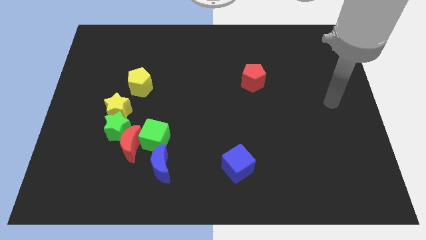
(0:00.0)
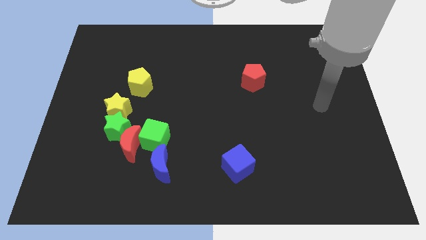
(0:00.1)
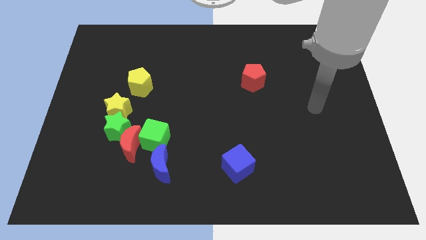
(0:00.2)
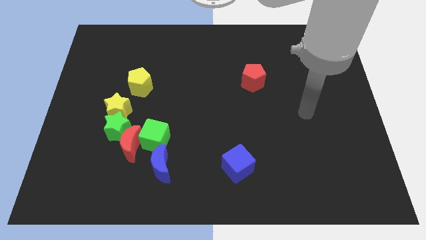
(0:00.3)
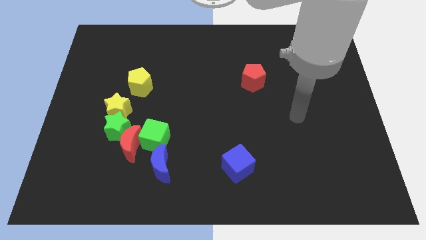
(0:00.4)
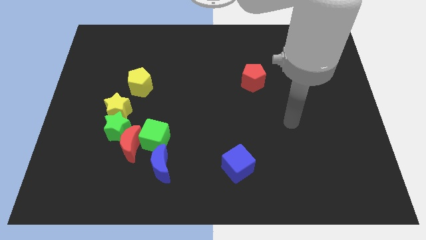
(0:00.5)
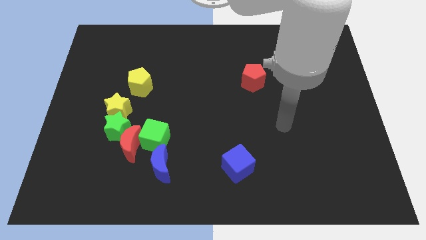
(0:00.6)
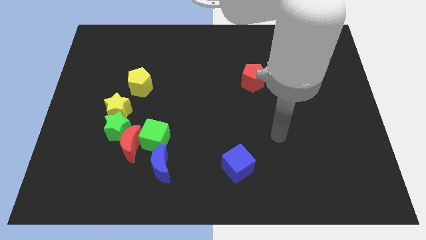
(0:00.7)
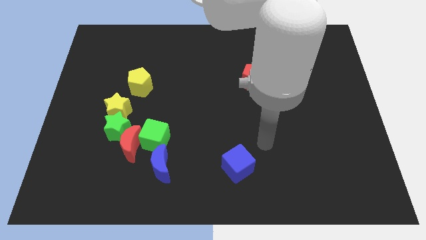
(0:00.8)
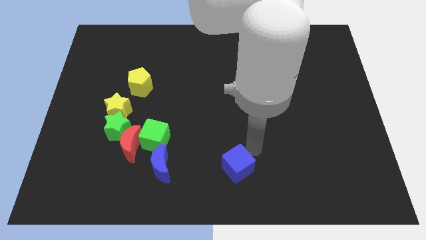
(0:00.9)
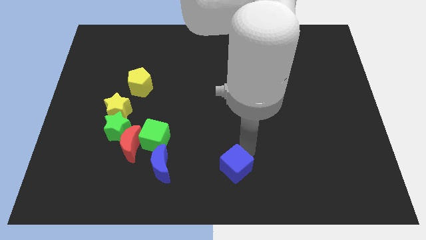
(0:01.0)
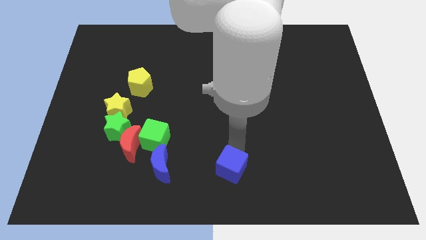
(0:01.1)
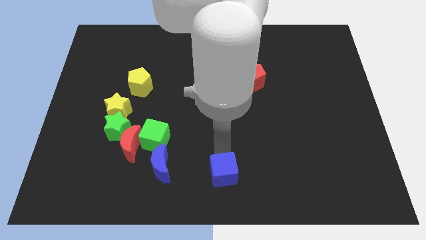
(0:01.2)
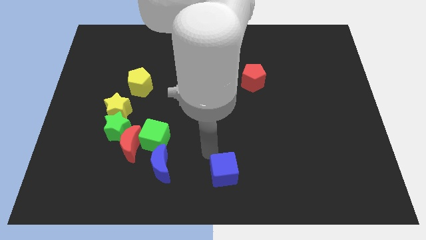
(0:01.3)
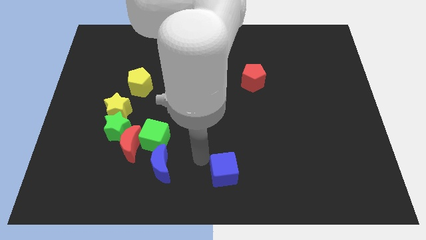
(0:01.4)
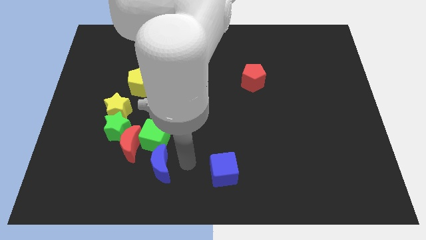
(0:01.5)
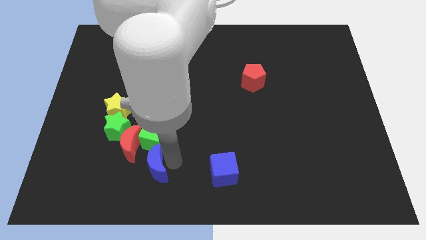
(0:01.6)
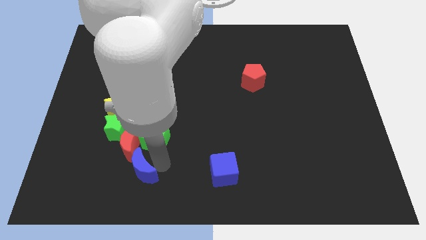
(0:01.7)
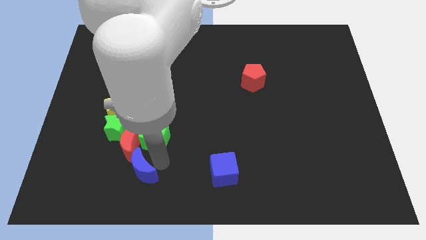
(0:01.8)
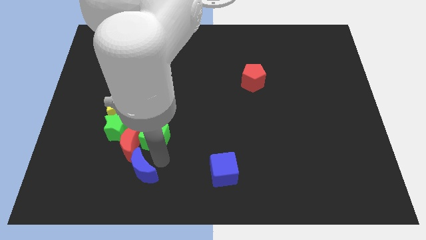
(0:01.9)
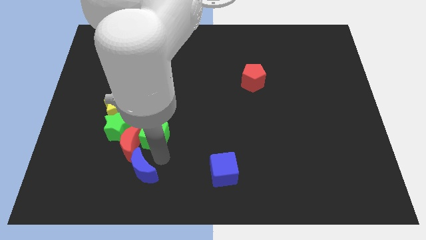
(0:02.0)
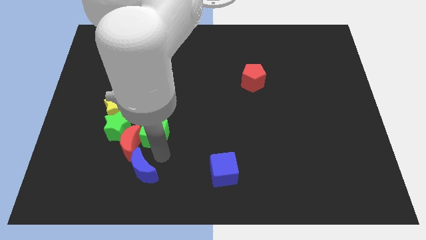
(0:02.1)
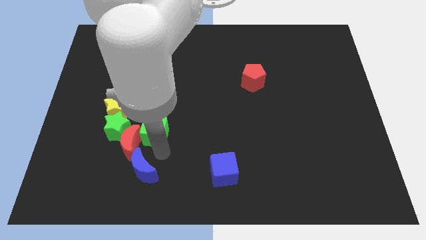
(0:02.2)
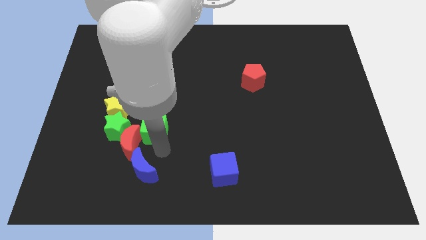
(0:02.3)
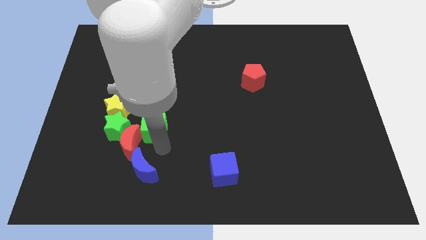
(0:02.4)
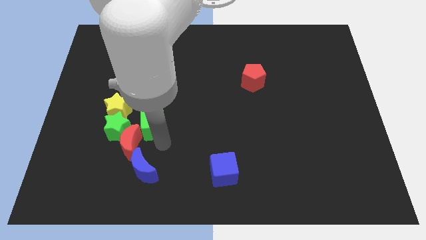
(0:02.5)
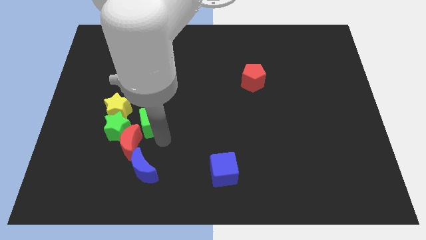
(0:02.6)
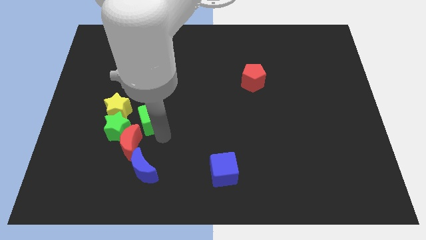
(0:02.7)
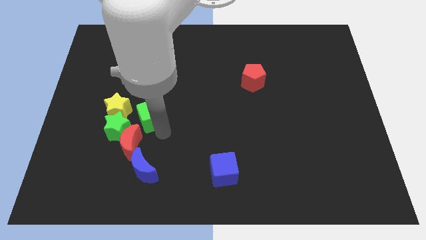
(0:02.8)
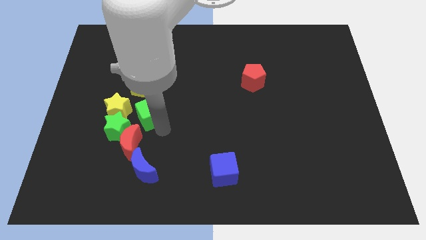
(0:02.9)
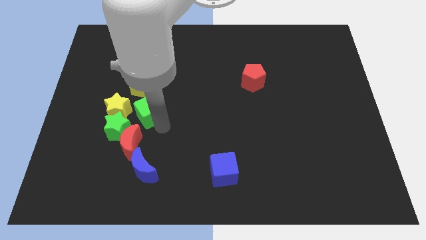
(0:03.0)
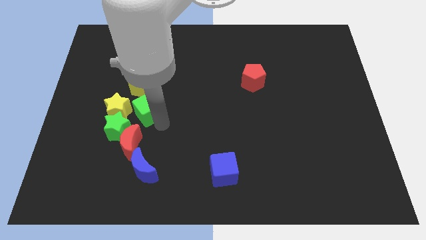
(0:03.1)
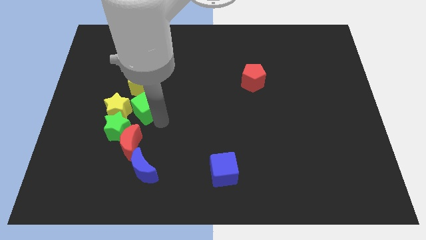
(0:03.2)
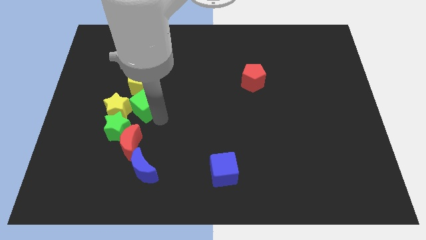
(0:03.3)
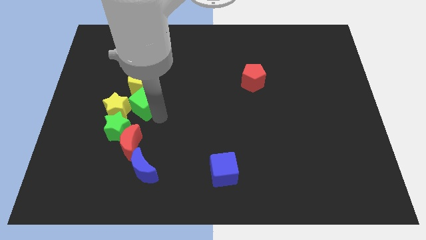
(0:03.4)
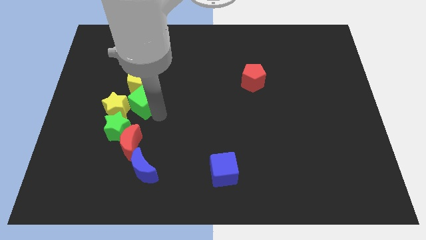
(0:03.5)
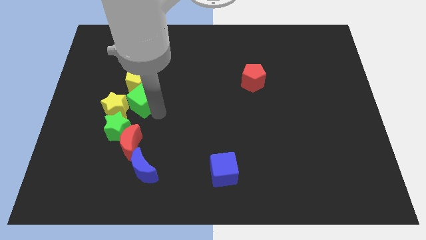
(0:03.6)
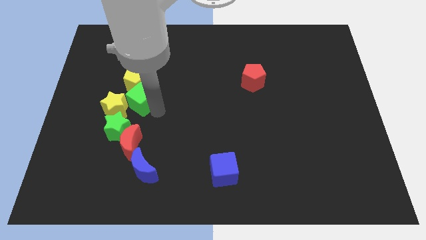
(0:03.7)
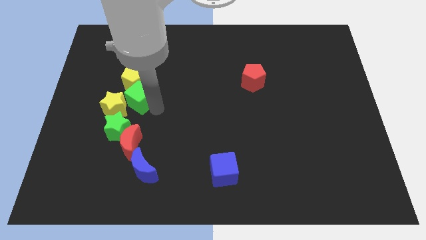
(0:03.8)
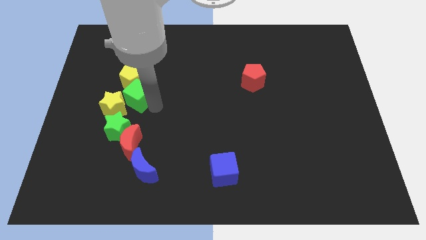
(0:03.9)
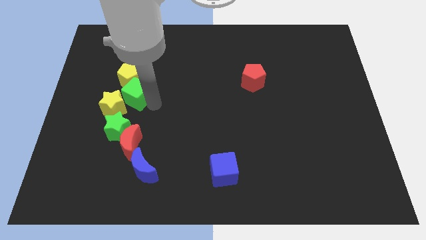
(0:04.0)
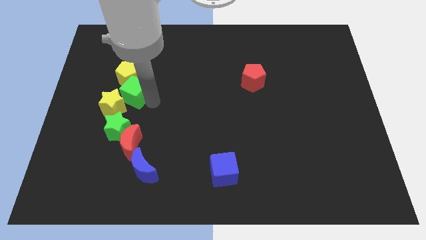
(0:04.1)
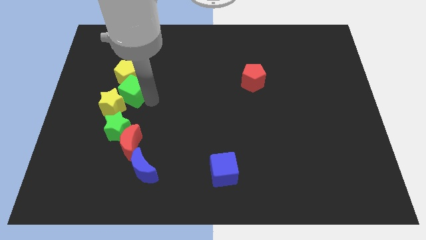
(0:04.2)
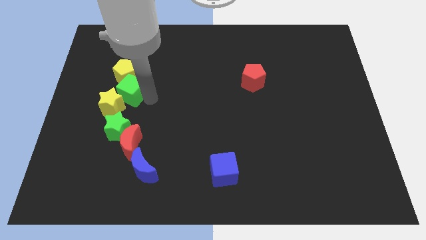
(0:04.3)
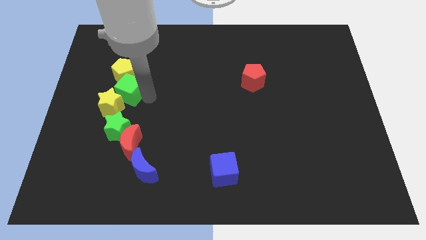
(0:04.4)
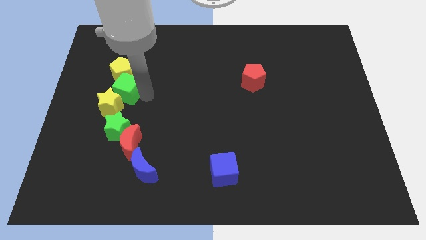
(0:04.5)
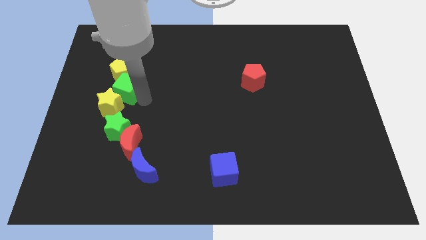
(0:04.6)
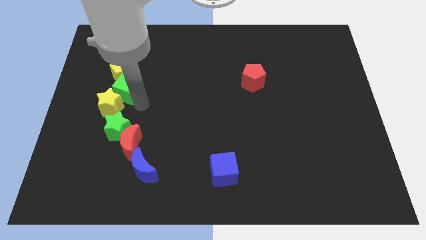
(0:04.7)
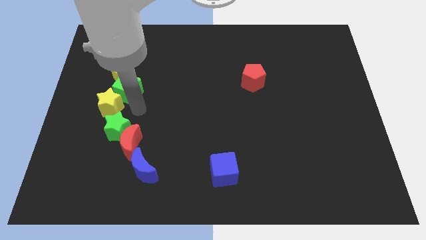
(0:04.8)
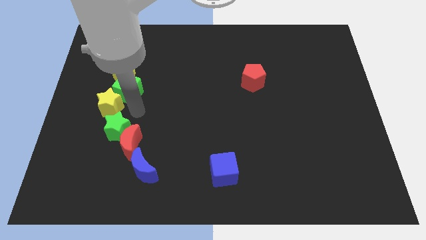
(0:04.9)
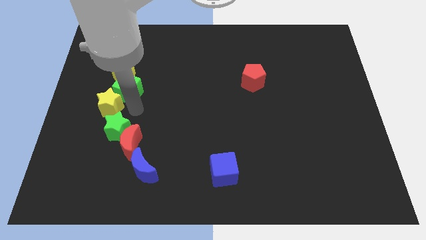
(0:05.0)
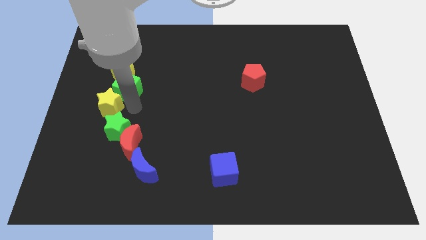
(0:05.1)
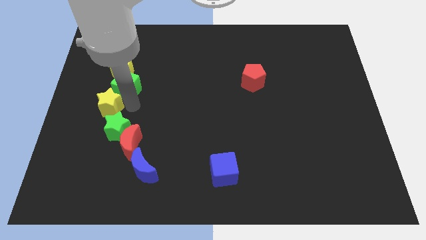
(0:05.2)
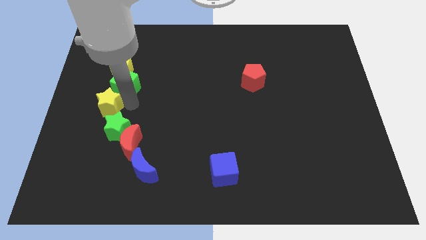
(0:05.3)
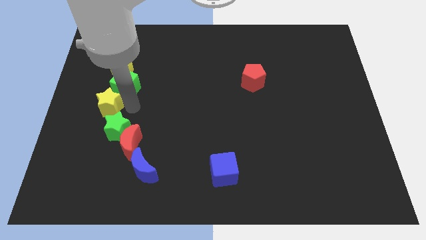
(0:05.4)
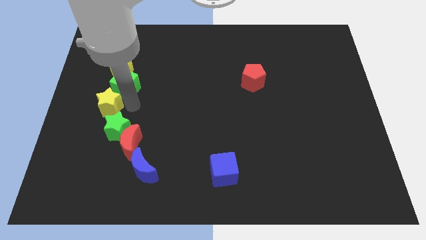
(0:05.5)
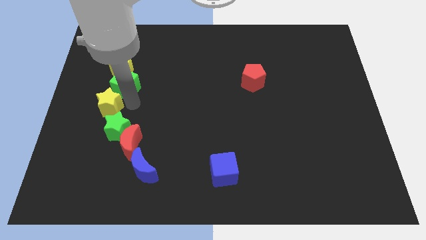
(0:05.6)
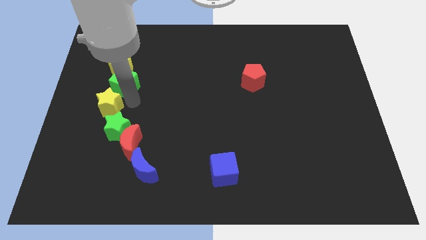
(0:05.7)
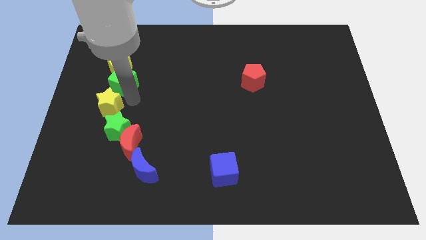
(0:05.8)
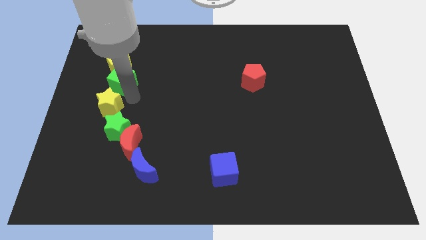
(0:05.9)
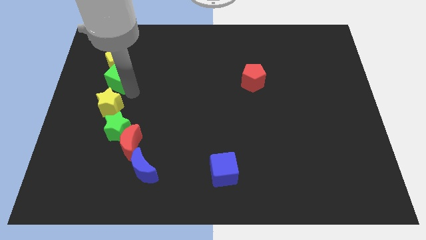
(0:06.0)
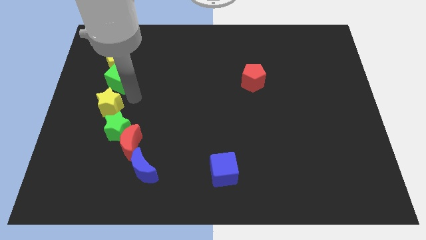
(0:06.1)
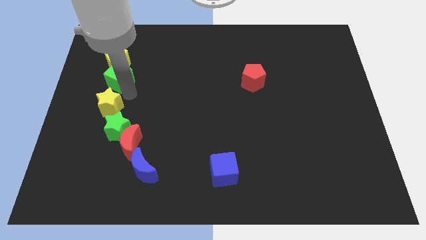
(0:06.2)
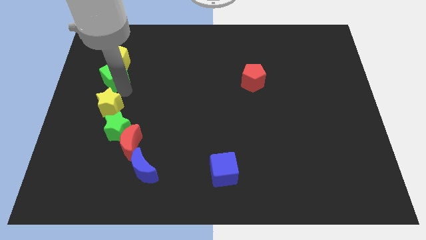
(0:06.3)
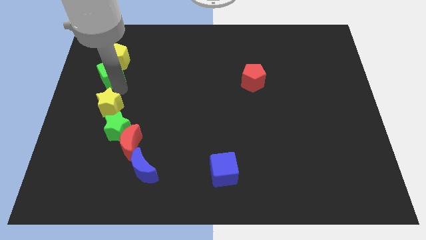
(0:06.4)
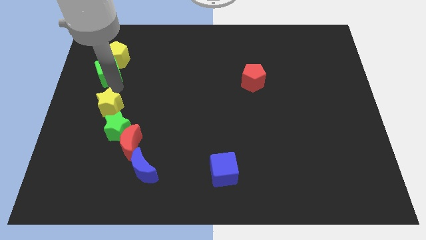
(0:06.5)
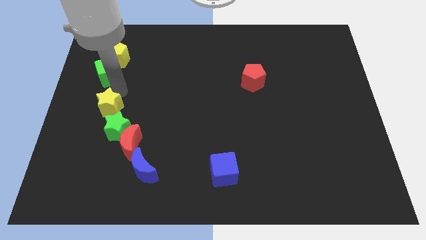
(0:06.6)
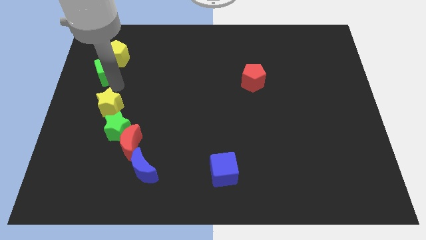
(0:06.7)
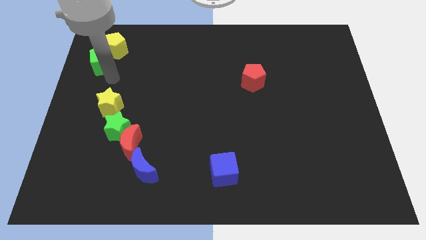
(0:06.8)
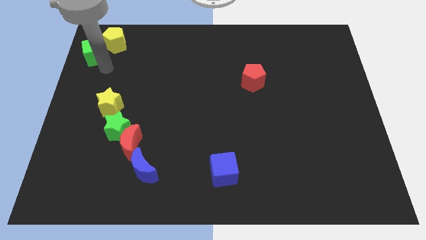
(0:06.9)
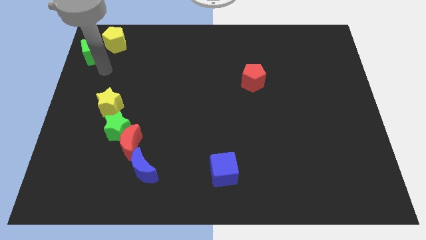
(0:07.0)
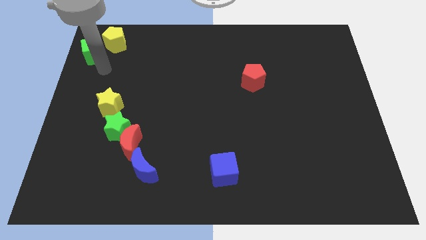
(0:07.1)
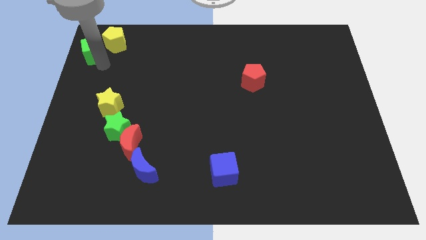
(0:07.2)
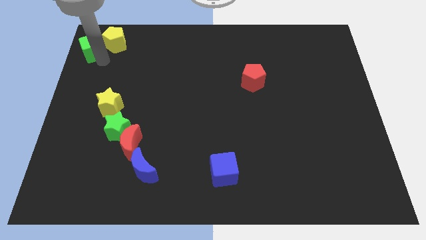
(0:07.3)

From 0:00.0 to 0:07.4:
slide the green cube to the top left of the board
